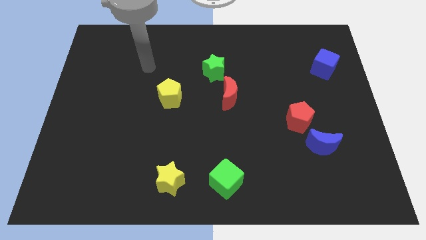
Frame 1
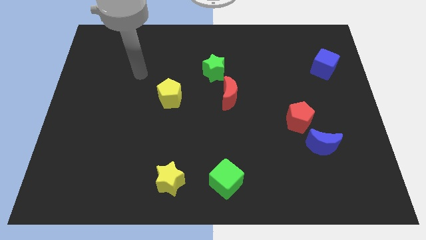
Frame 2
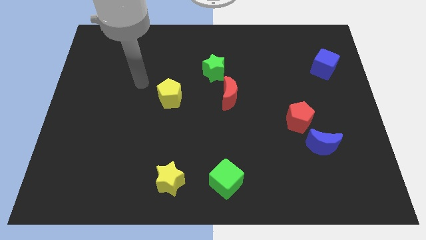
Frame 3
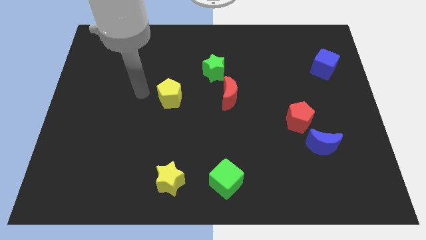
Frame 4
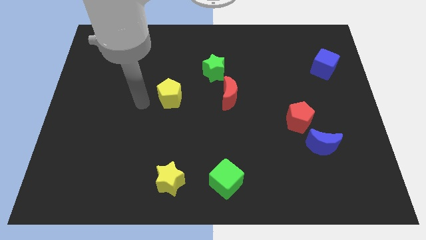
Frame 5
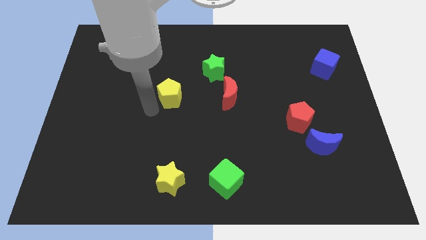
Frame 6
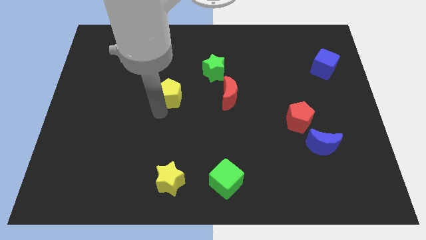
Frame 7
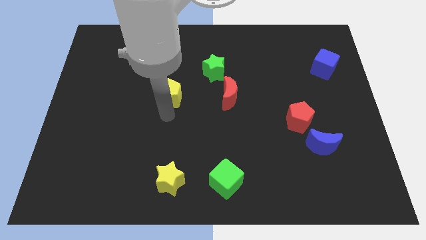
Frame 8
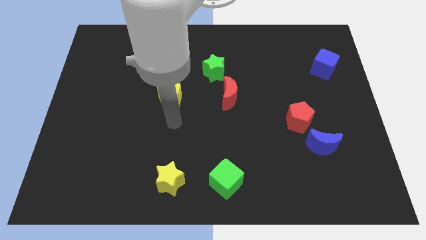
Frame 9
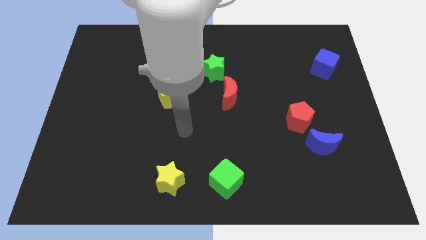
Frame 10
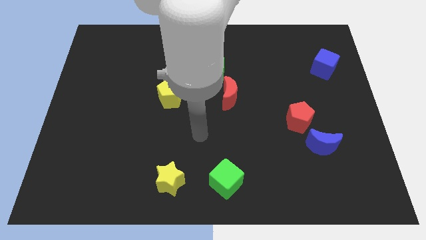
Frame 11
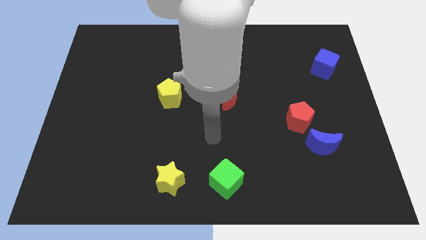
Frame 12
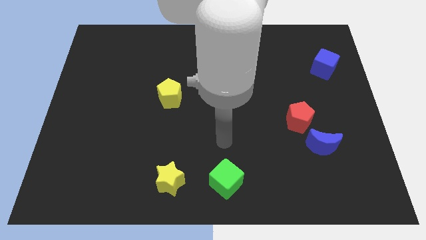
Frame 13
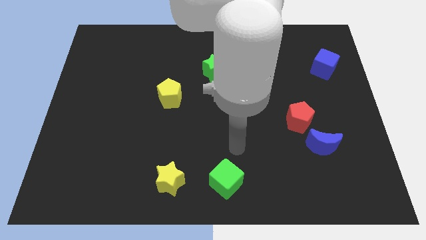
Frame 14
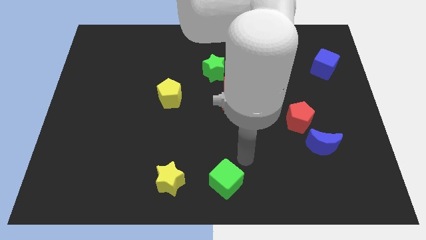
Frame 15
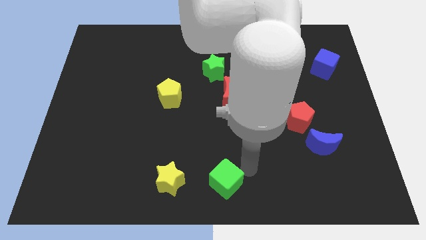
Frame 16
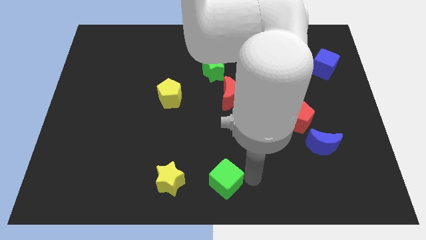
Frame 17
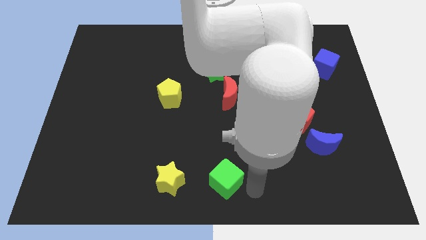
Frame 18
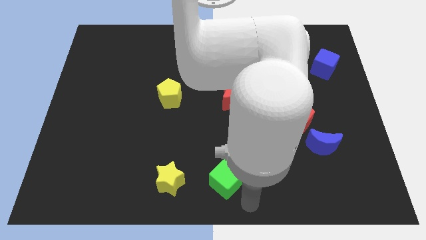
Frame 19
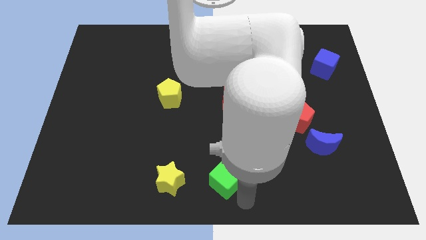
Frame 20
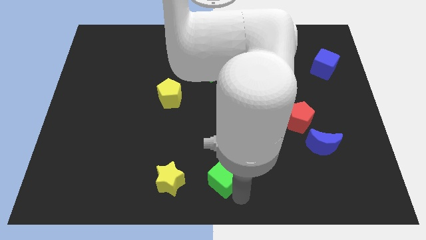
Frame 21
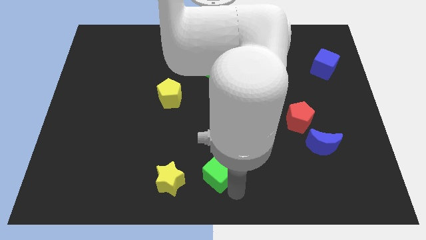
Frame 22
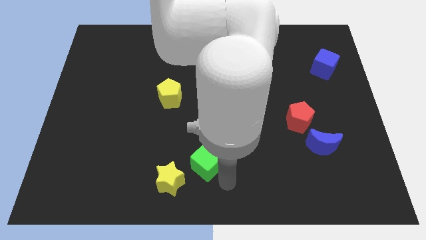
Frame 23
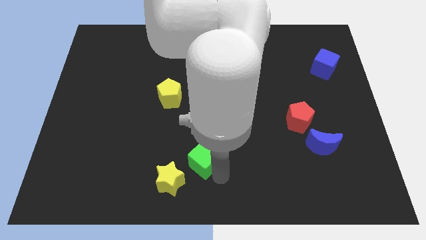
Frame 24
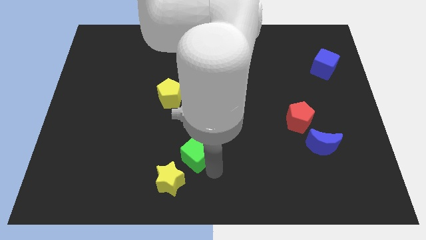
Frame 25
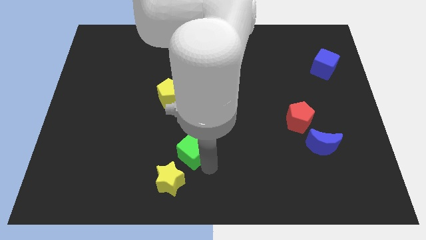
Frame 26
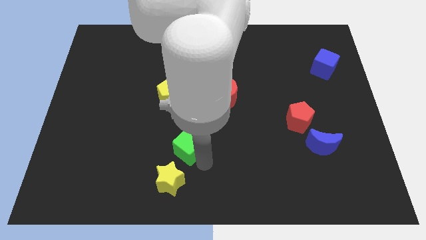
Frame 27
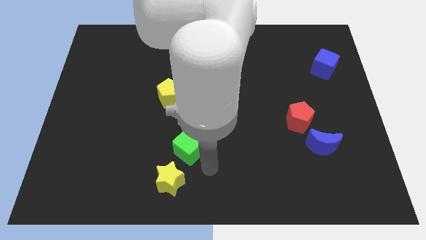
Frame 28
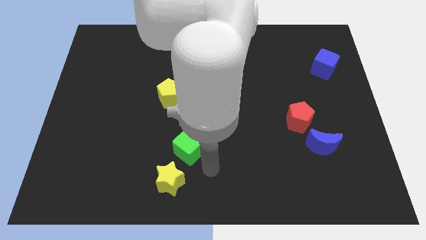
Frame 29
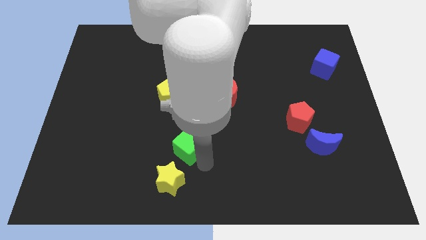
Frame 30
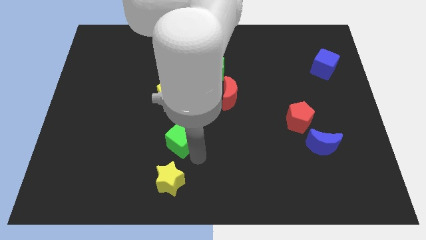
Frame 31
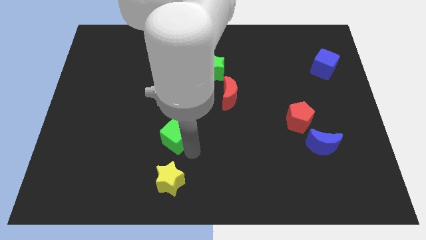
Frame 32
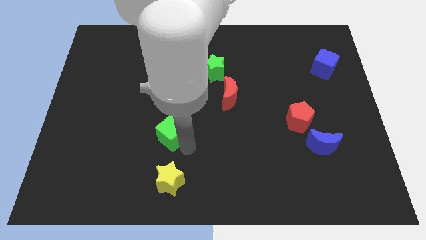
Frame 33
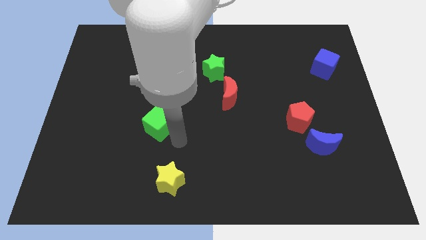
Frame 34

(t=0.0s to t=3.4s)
slide the green cube up and then to the left

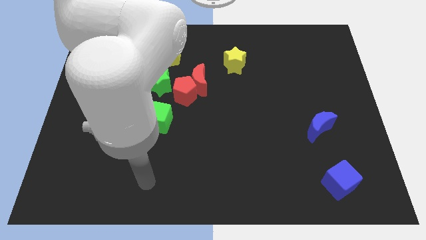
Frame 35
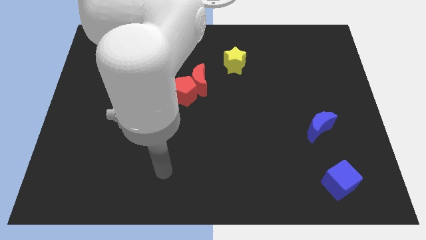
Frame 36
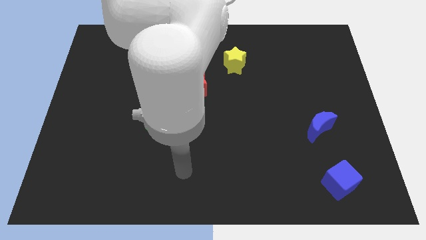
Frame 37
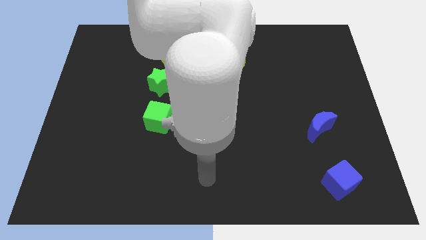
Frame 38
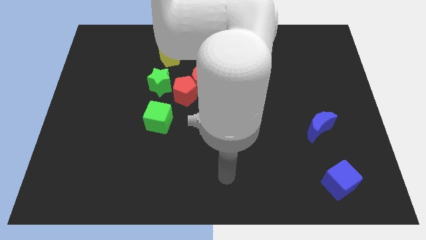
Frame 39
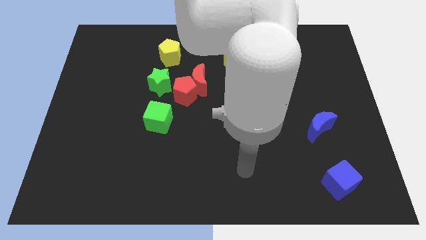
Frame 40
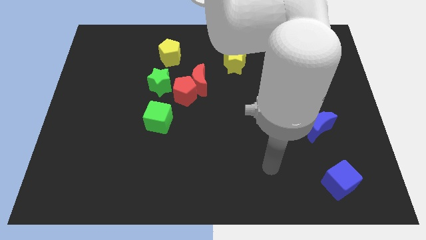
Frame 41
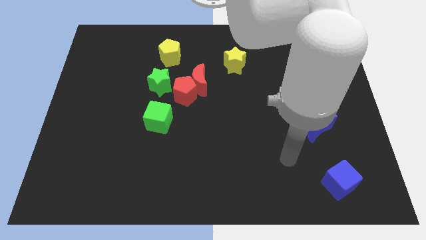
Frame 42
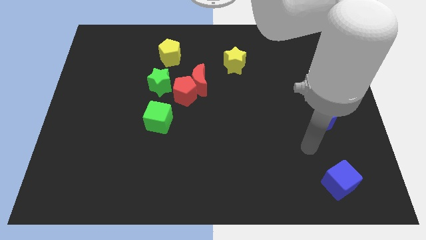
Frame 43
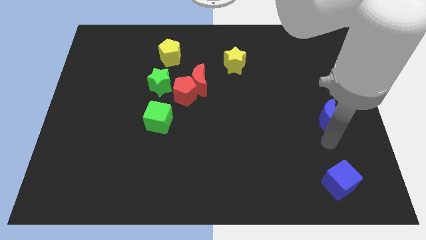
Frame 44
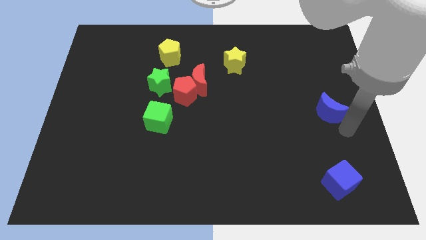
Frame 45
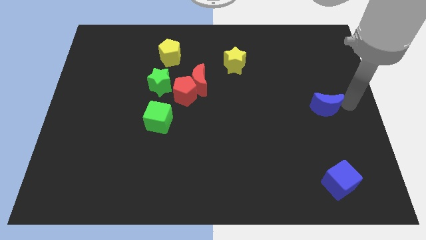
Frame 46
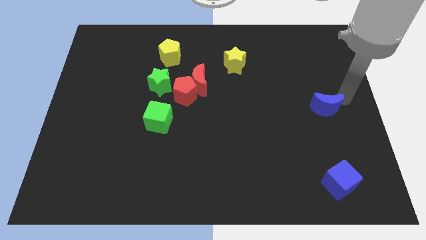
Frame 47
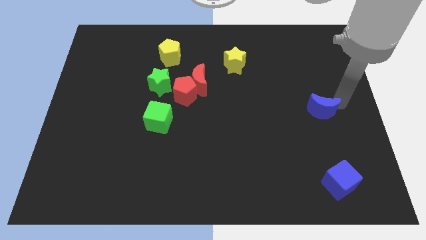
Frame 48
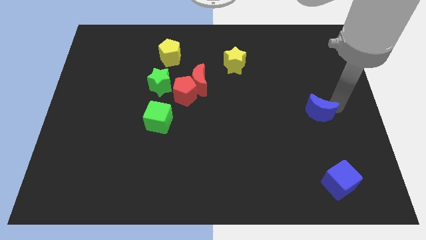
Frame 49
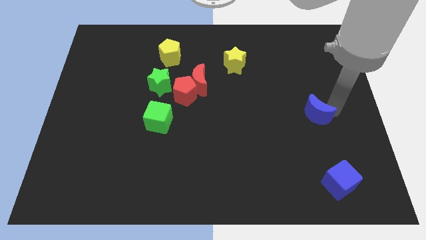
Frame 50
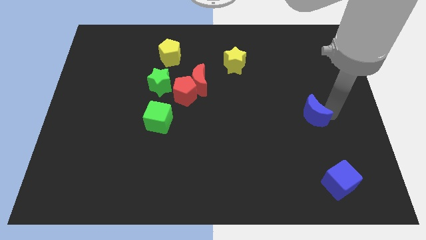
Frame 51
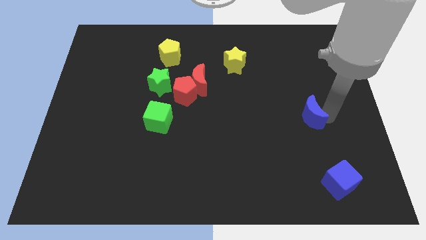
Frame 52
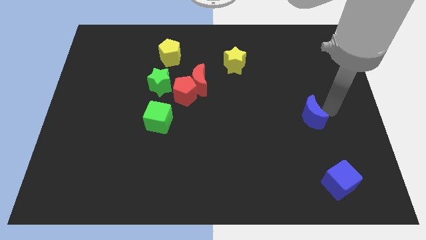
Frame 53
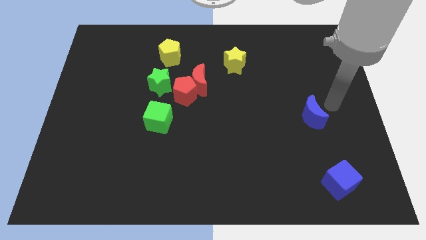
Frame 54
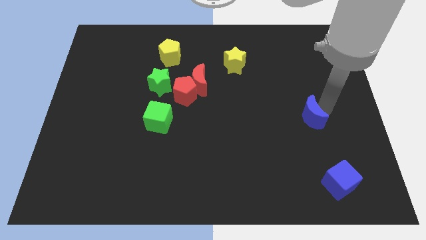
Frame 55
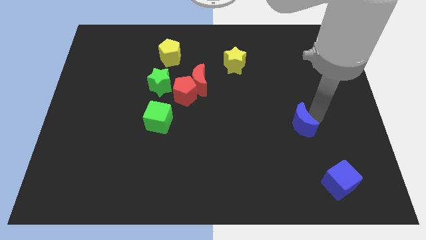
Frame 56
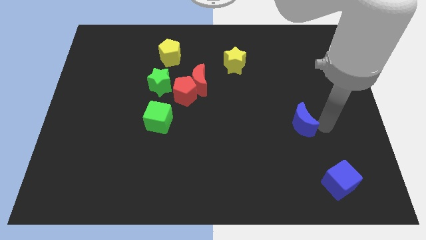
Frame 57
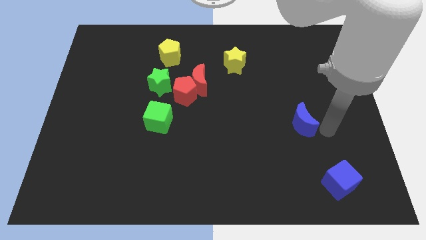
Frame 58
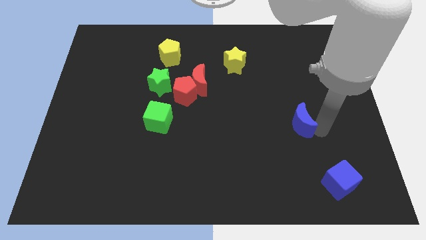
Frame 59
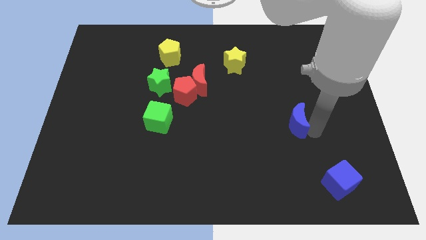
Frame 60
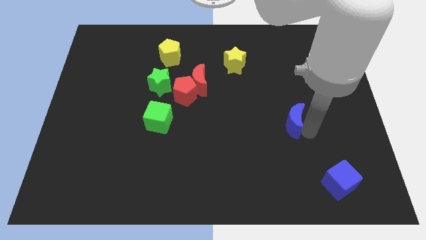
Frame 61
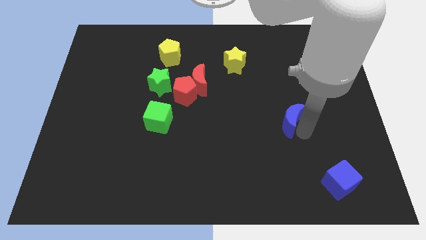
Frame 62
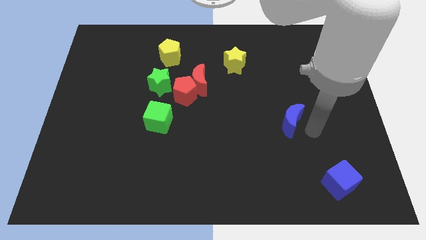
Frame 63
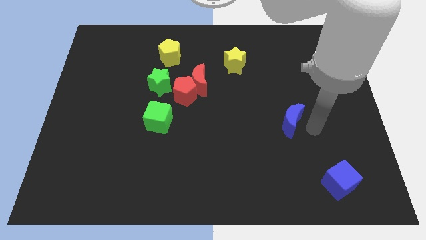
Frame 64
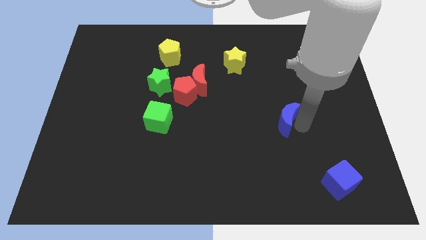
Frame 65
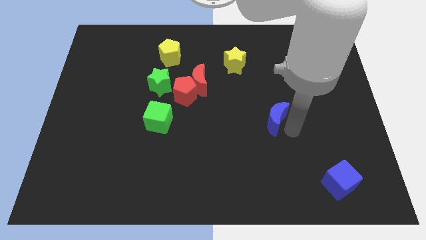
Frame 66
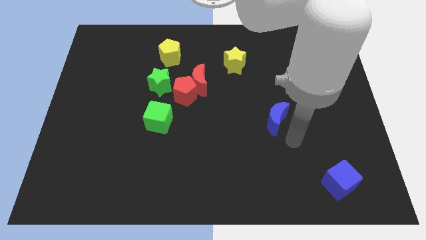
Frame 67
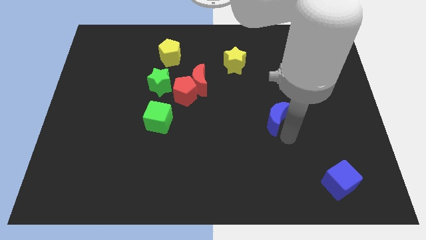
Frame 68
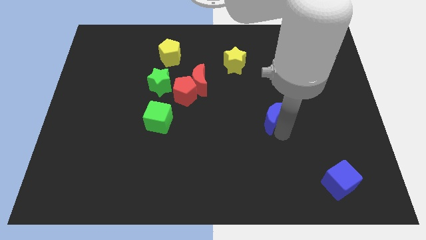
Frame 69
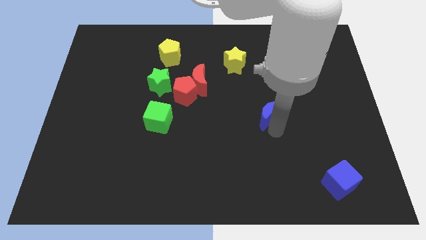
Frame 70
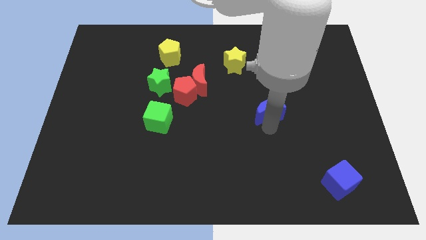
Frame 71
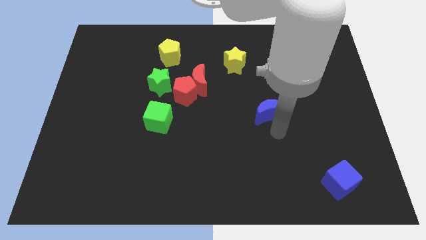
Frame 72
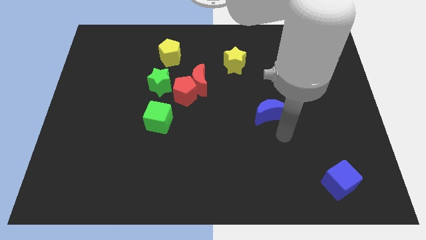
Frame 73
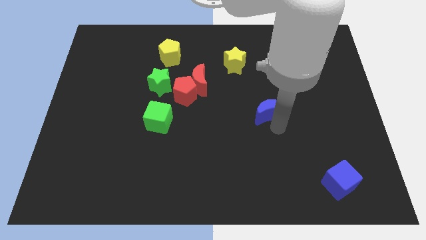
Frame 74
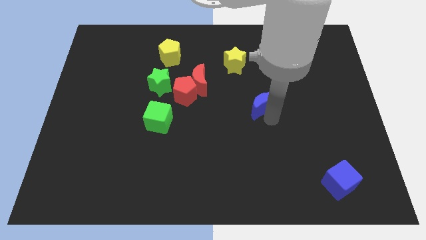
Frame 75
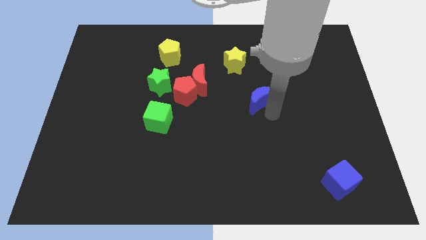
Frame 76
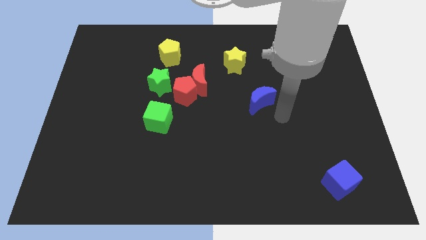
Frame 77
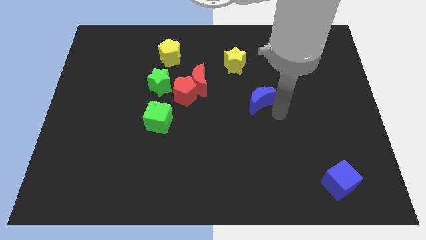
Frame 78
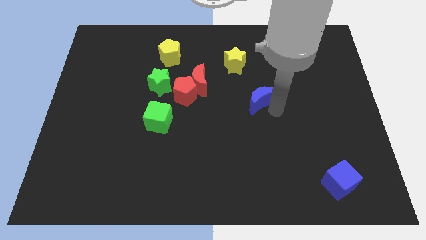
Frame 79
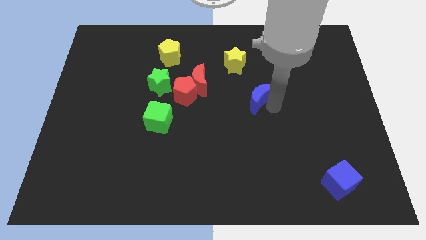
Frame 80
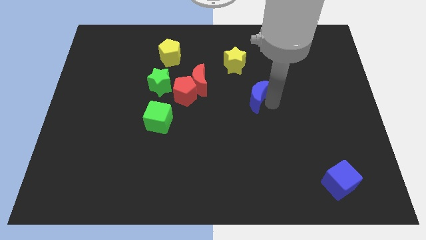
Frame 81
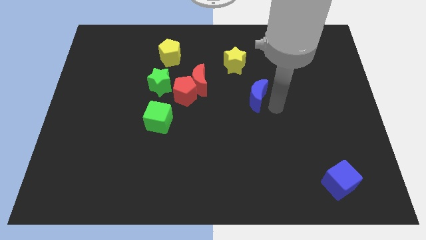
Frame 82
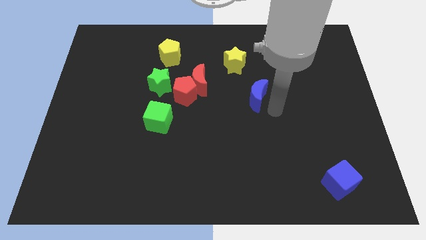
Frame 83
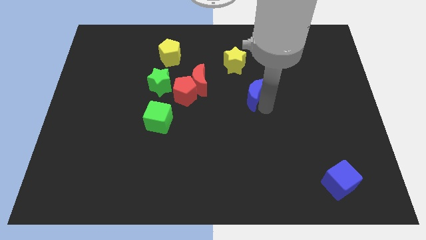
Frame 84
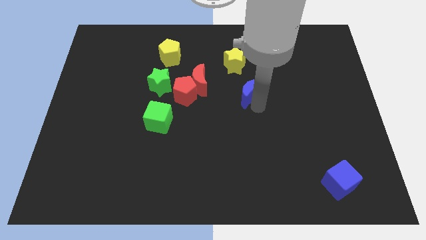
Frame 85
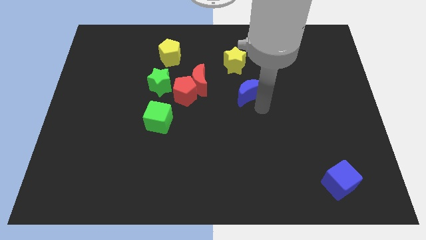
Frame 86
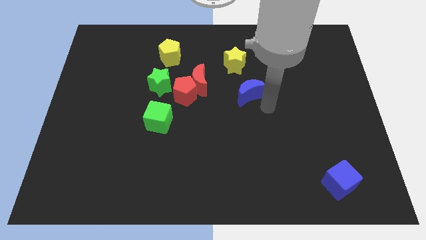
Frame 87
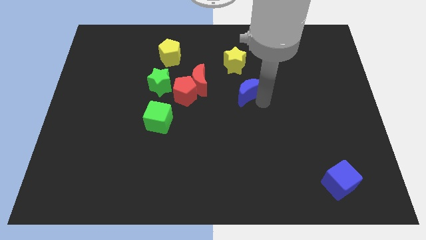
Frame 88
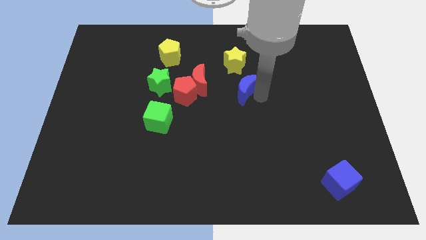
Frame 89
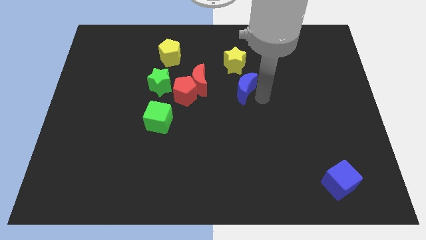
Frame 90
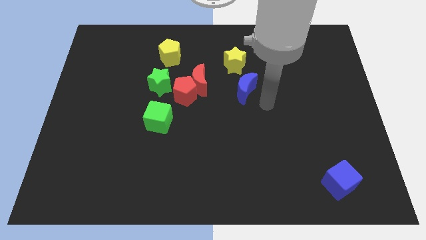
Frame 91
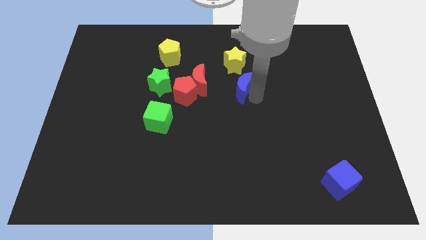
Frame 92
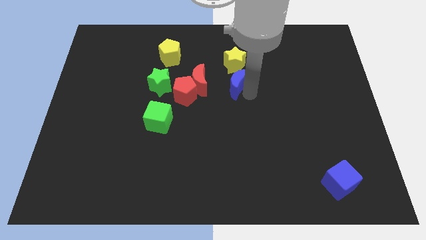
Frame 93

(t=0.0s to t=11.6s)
slide the blue moon diagonally upwards and left
